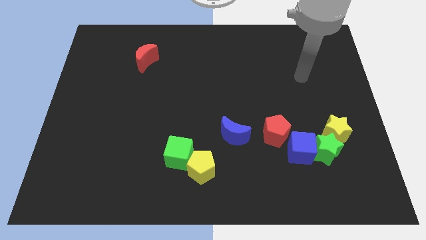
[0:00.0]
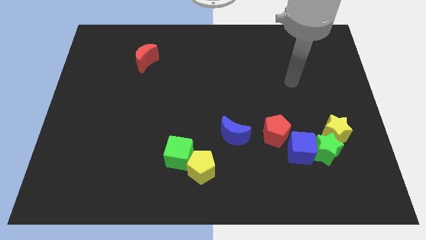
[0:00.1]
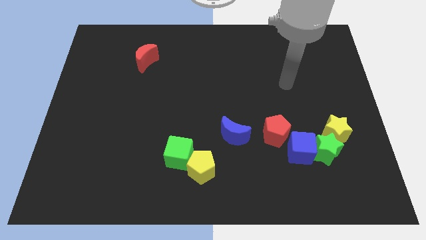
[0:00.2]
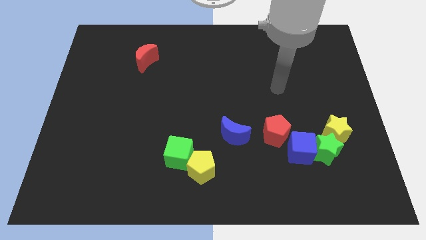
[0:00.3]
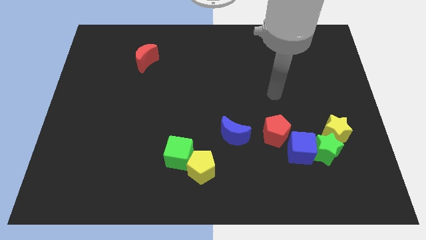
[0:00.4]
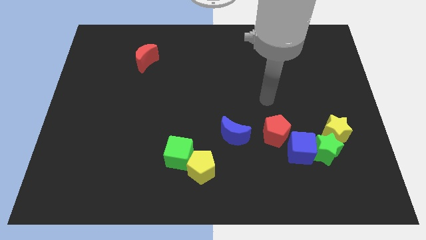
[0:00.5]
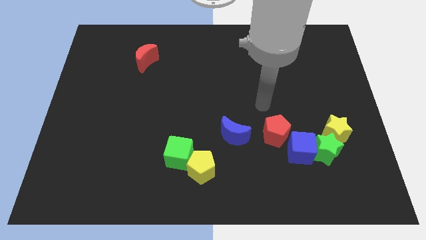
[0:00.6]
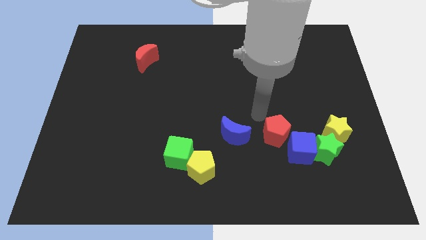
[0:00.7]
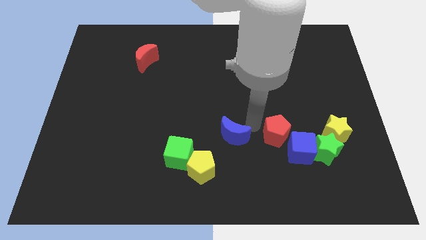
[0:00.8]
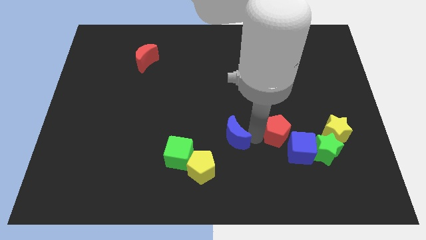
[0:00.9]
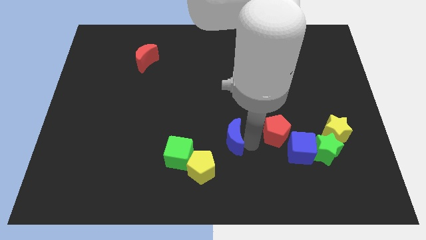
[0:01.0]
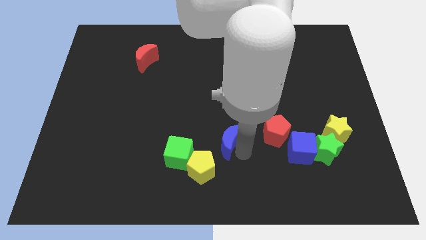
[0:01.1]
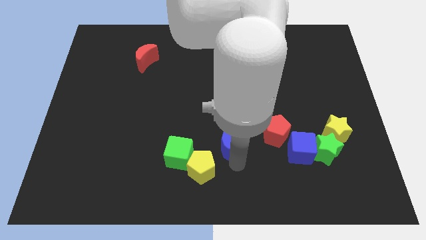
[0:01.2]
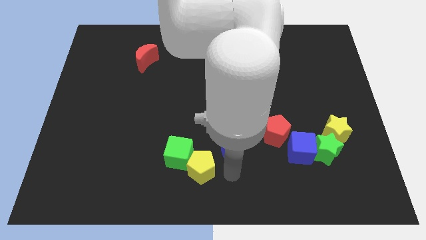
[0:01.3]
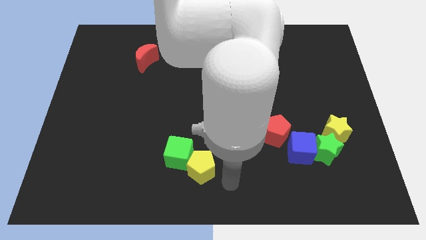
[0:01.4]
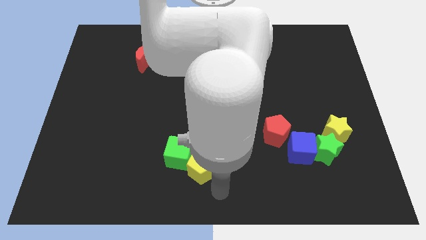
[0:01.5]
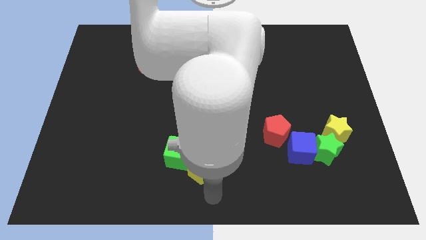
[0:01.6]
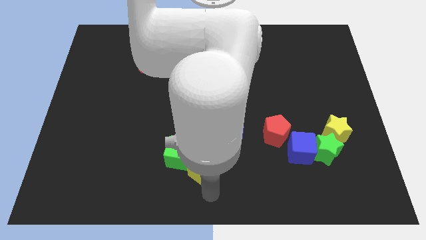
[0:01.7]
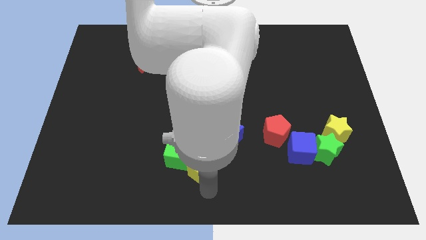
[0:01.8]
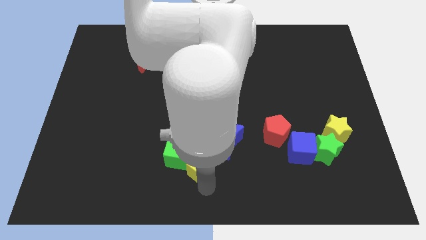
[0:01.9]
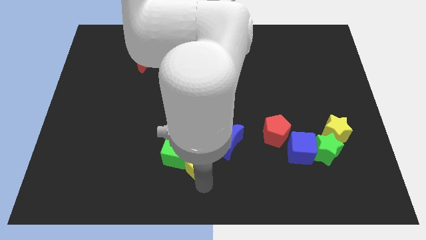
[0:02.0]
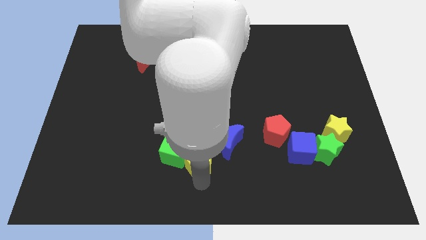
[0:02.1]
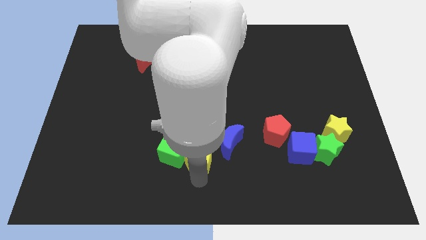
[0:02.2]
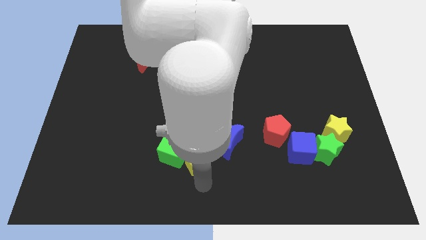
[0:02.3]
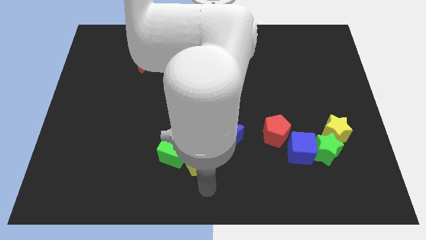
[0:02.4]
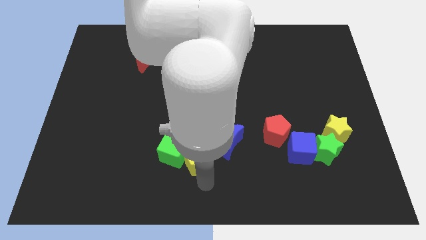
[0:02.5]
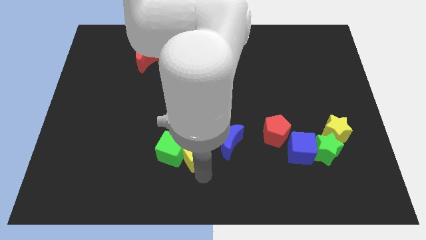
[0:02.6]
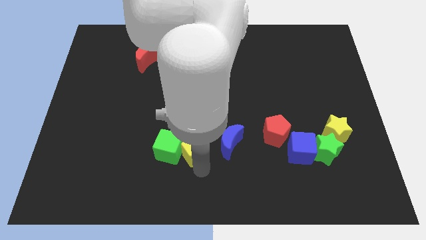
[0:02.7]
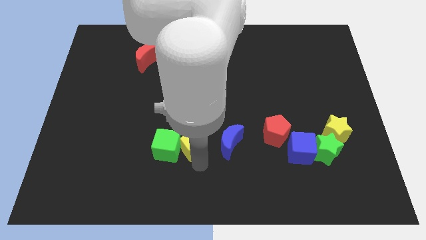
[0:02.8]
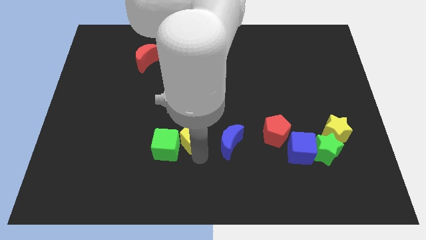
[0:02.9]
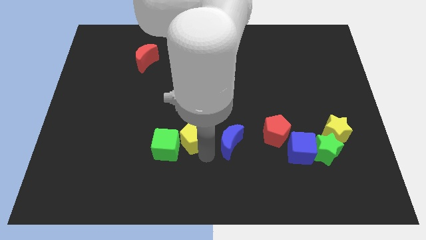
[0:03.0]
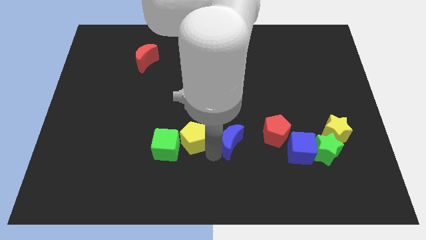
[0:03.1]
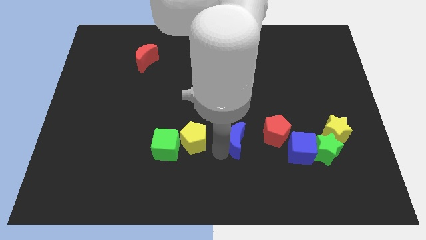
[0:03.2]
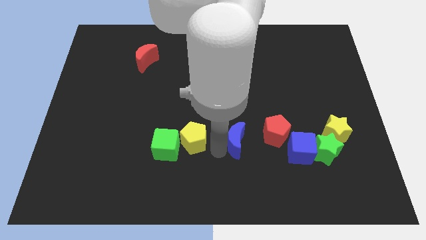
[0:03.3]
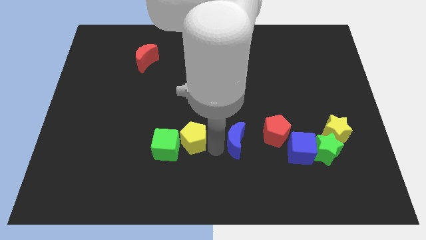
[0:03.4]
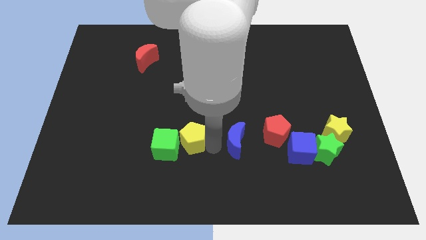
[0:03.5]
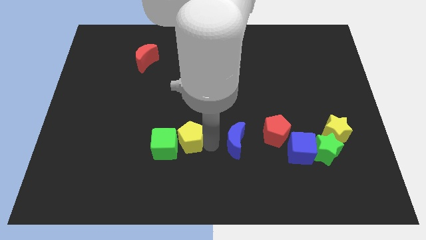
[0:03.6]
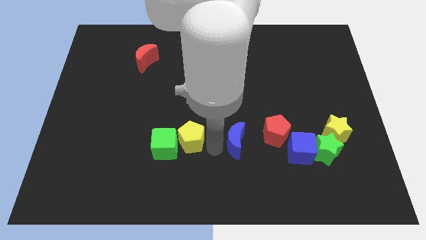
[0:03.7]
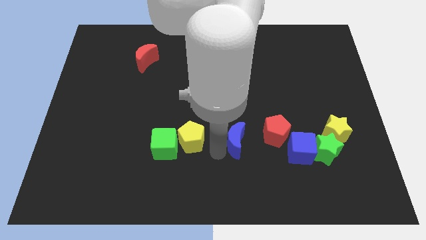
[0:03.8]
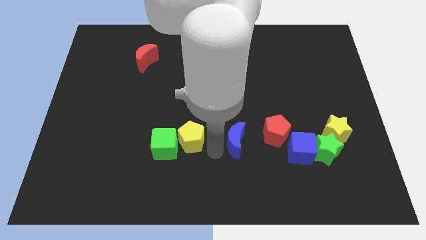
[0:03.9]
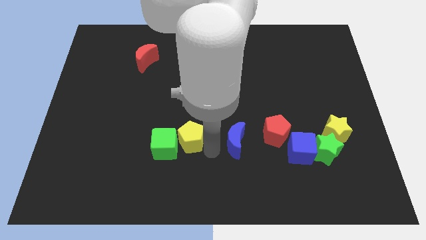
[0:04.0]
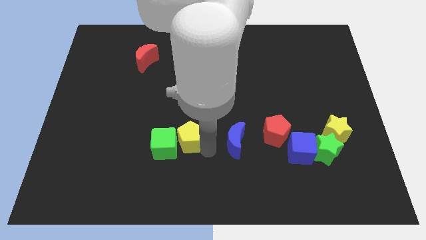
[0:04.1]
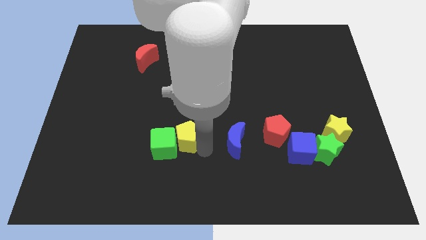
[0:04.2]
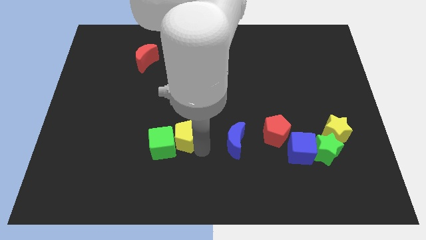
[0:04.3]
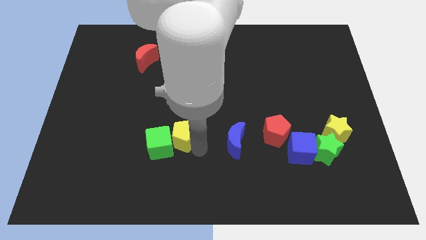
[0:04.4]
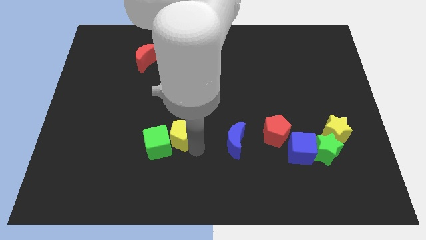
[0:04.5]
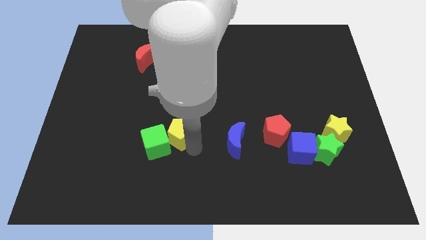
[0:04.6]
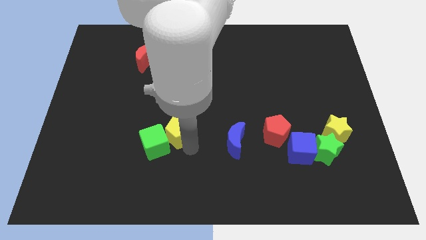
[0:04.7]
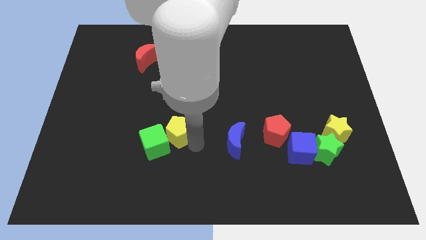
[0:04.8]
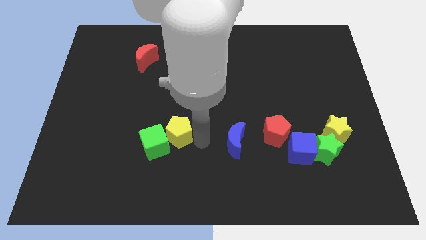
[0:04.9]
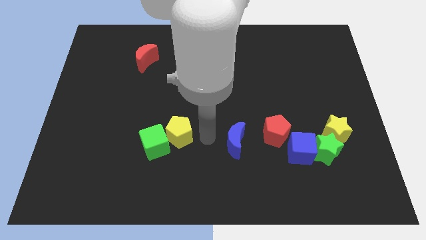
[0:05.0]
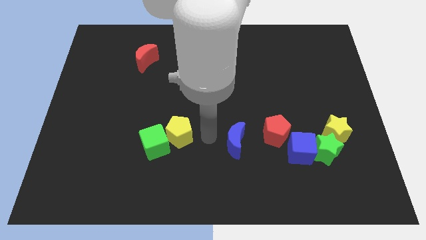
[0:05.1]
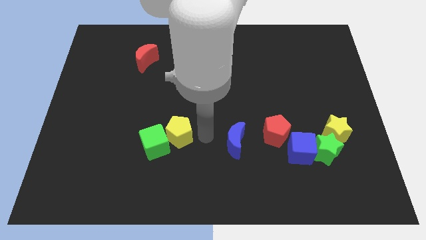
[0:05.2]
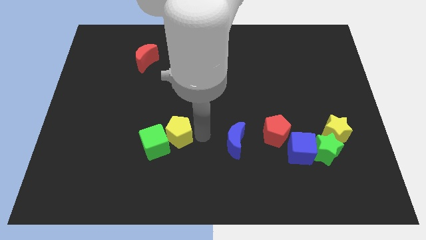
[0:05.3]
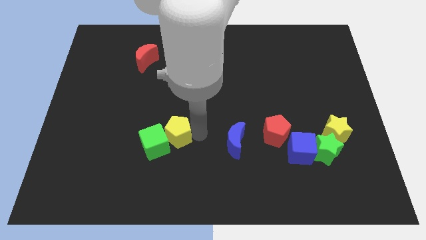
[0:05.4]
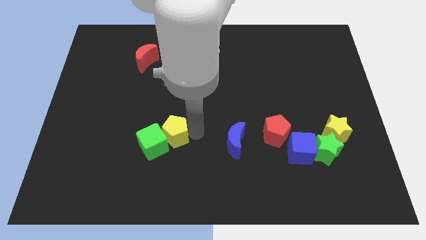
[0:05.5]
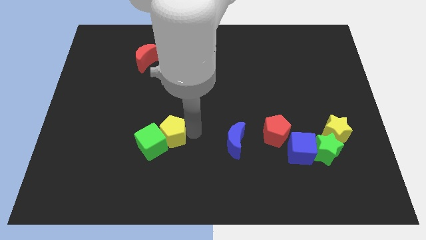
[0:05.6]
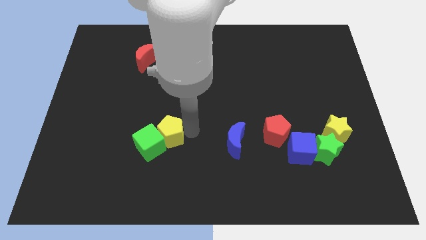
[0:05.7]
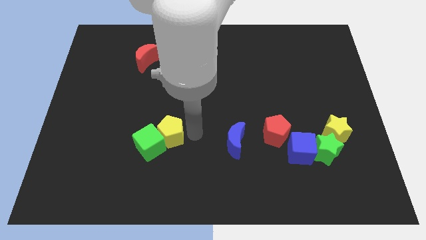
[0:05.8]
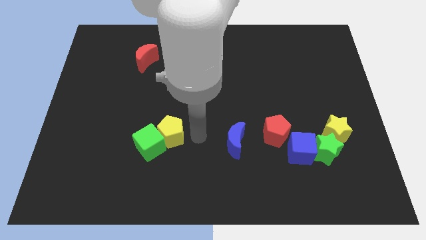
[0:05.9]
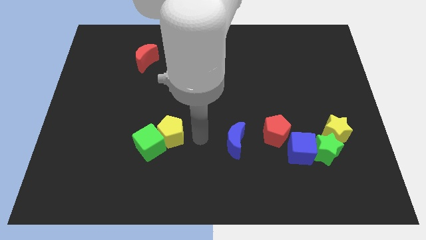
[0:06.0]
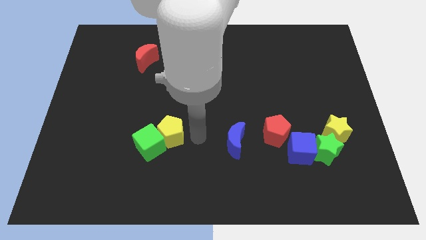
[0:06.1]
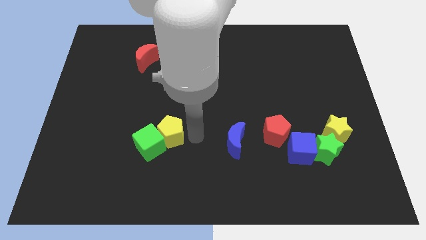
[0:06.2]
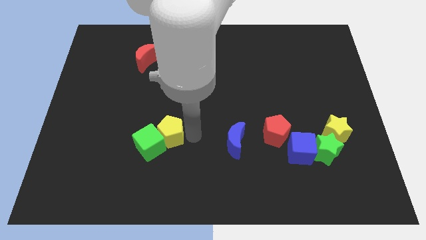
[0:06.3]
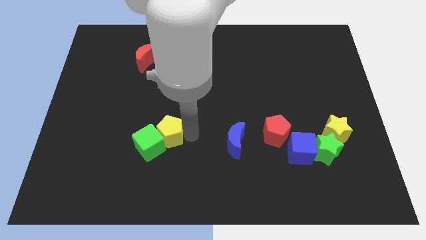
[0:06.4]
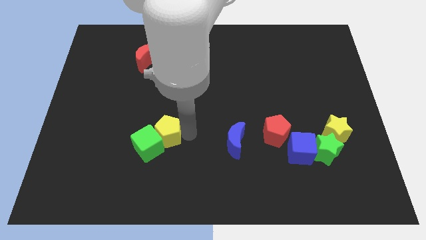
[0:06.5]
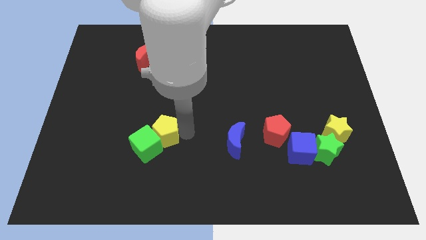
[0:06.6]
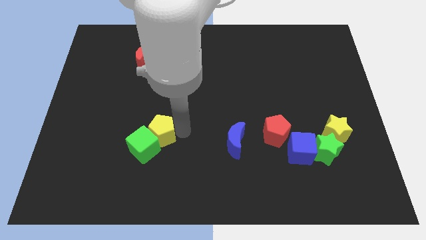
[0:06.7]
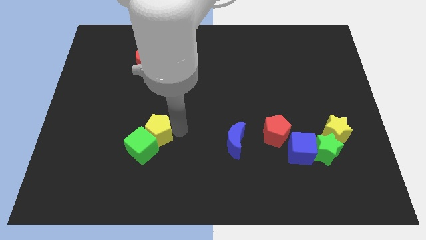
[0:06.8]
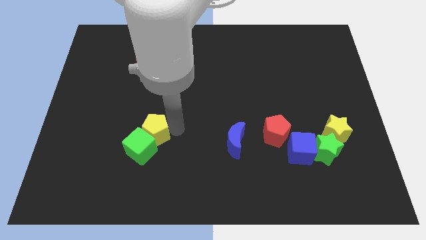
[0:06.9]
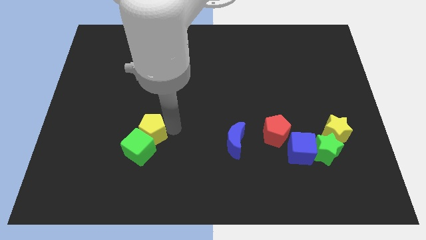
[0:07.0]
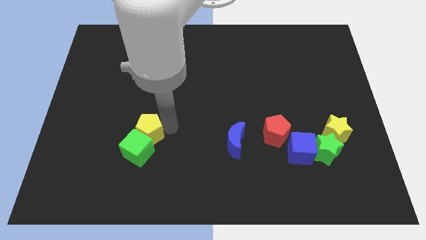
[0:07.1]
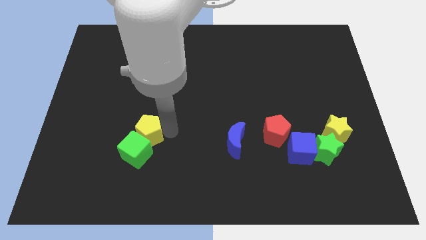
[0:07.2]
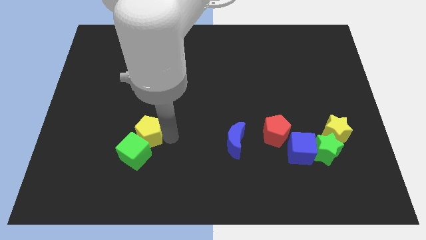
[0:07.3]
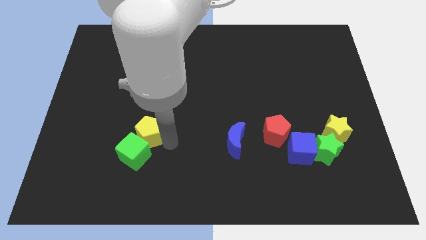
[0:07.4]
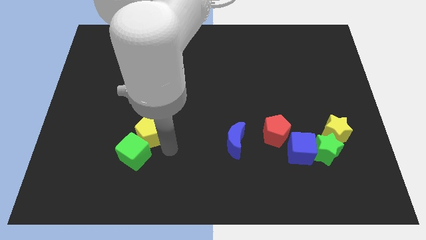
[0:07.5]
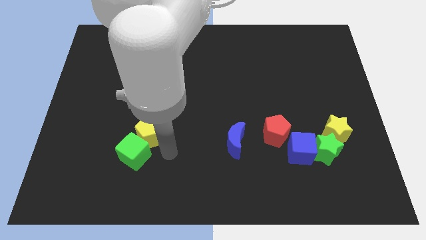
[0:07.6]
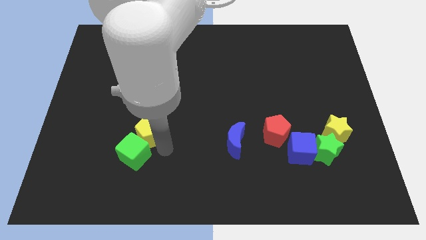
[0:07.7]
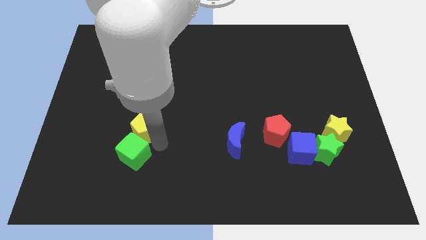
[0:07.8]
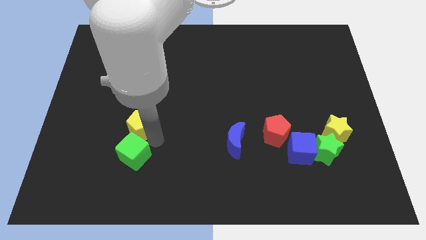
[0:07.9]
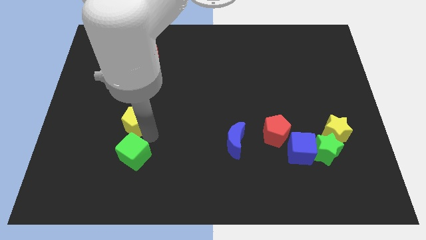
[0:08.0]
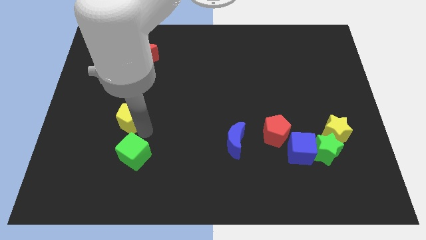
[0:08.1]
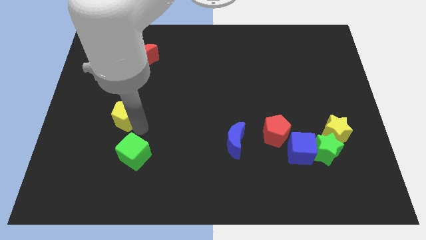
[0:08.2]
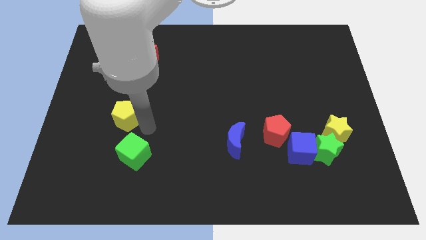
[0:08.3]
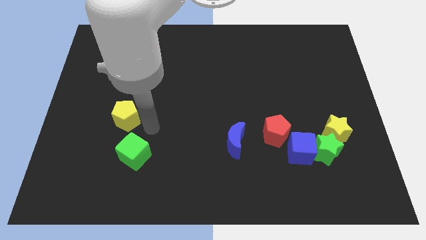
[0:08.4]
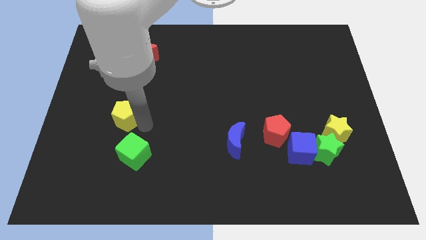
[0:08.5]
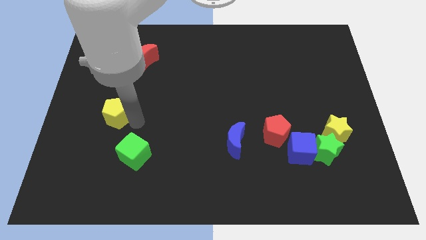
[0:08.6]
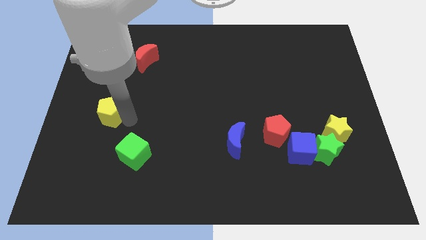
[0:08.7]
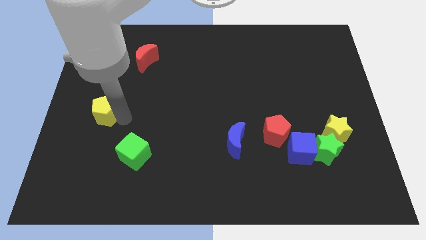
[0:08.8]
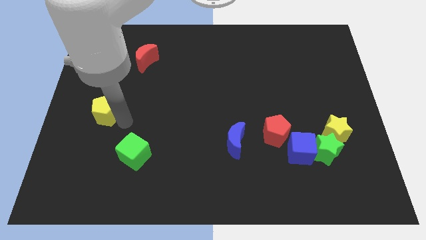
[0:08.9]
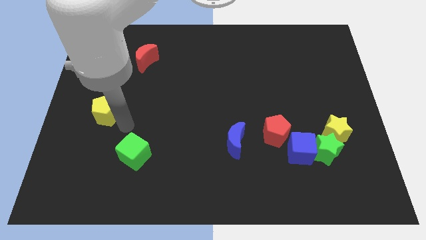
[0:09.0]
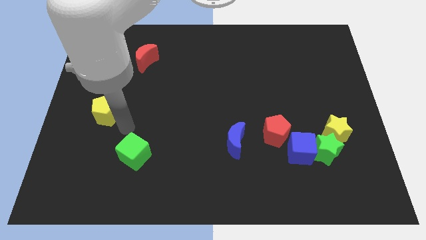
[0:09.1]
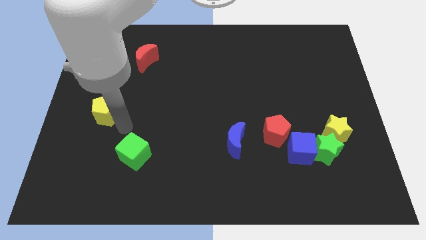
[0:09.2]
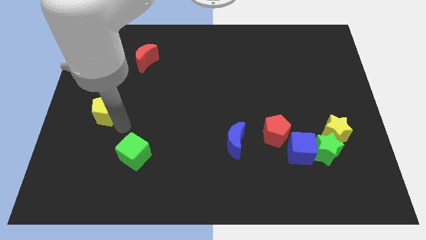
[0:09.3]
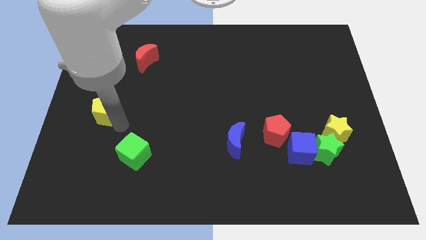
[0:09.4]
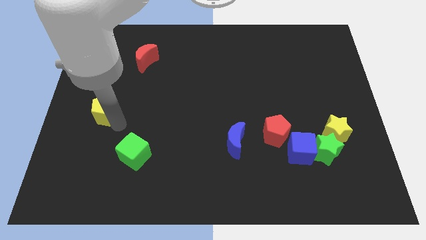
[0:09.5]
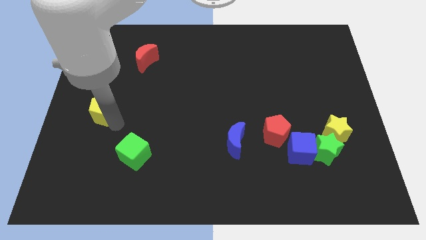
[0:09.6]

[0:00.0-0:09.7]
put the yellow pentagon to the center left
